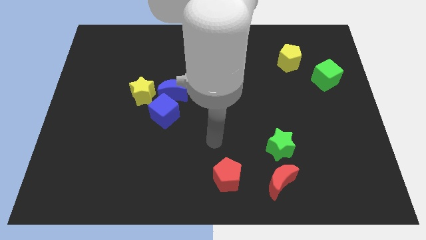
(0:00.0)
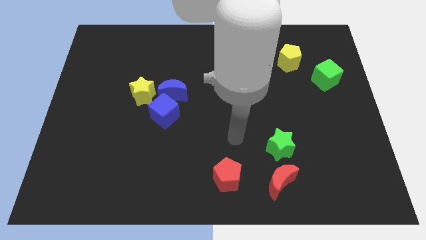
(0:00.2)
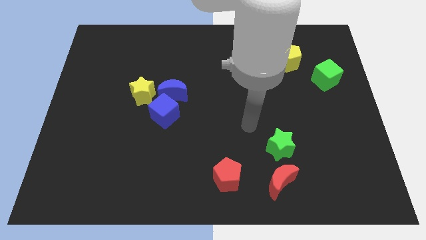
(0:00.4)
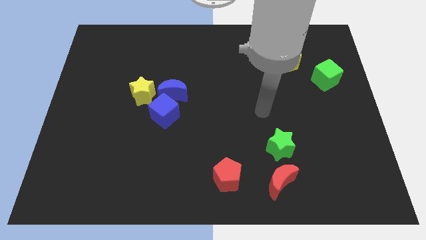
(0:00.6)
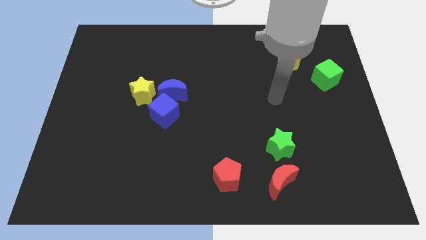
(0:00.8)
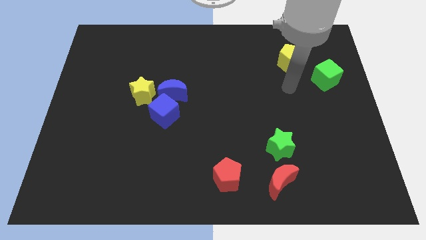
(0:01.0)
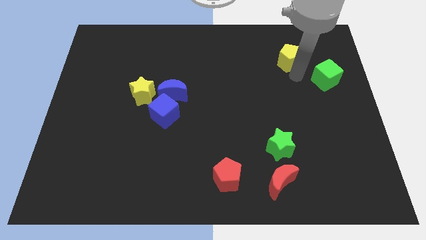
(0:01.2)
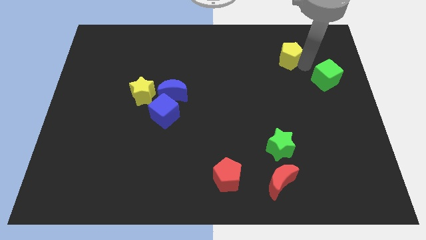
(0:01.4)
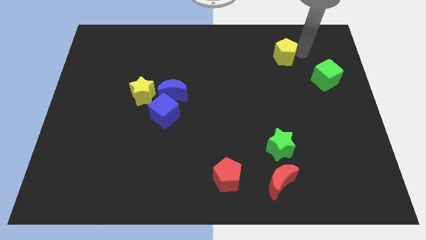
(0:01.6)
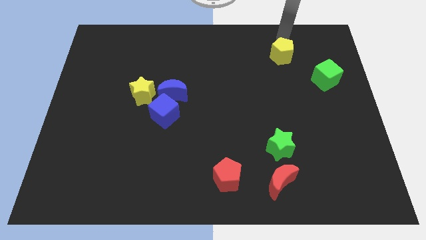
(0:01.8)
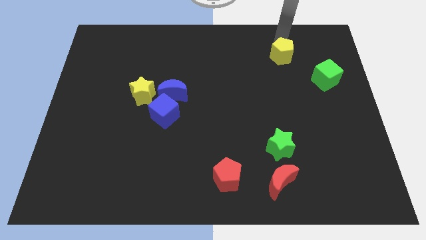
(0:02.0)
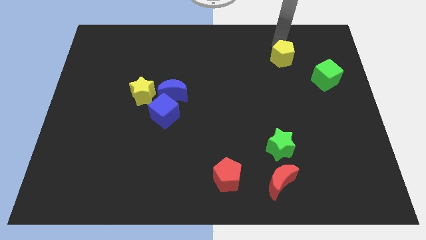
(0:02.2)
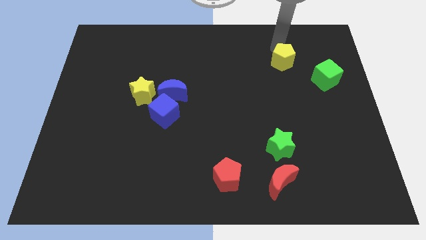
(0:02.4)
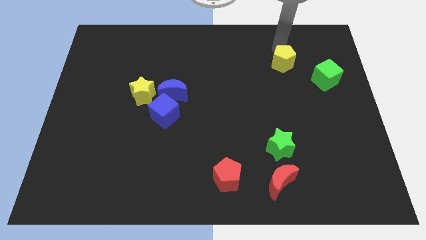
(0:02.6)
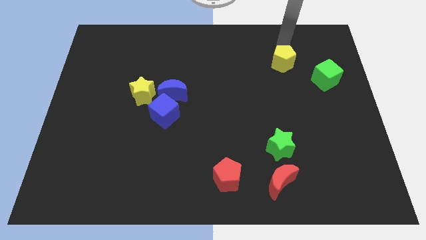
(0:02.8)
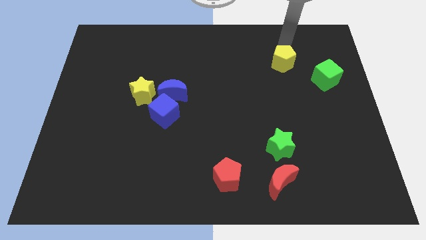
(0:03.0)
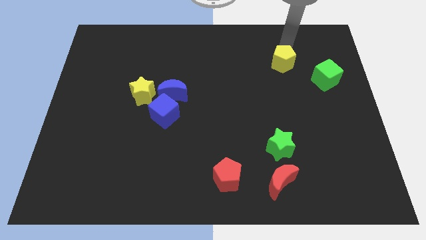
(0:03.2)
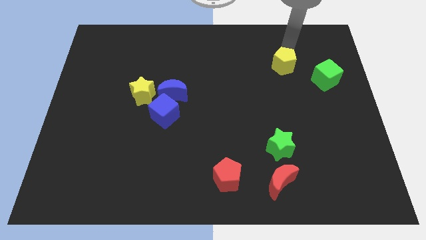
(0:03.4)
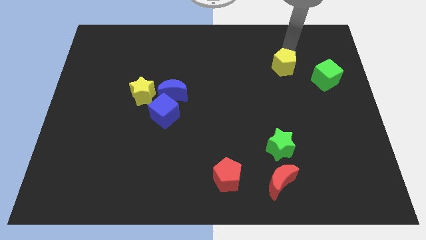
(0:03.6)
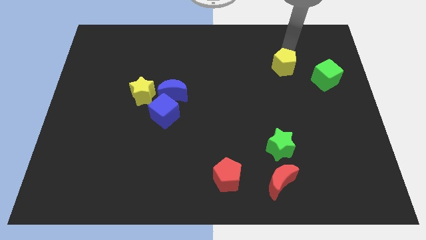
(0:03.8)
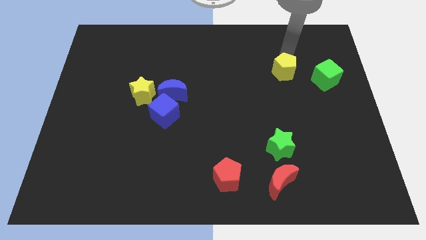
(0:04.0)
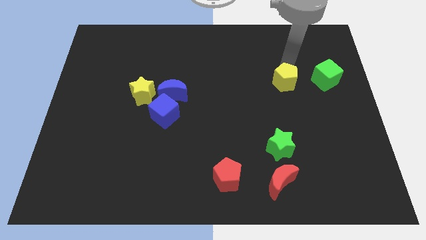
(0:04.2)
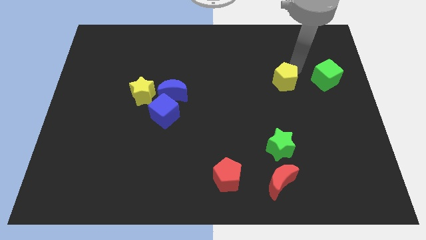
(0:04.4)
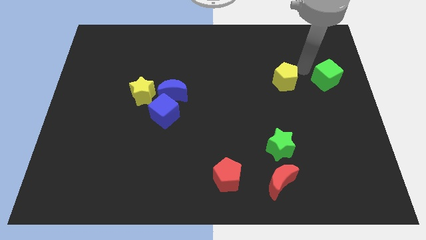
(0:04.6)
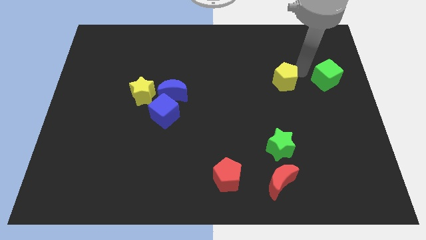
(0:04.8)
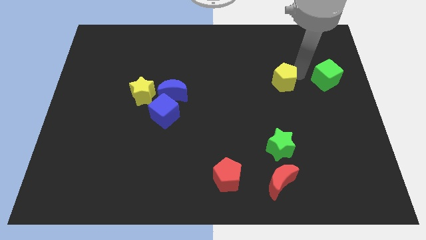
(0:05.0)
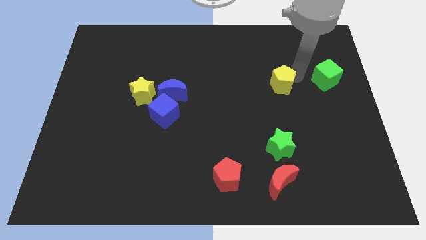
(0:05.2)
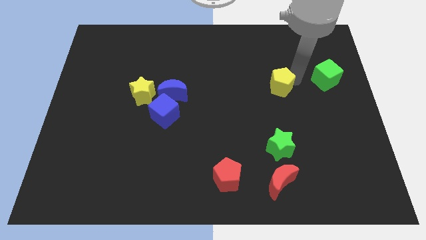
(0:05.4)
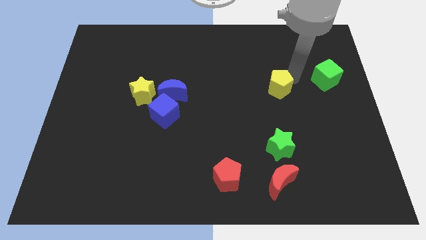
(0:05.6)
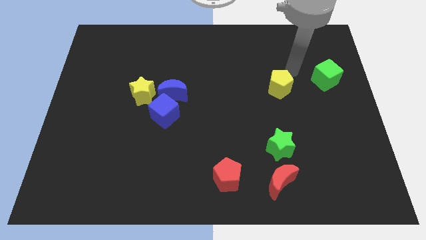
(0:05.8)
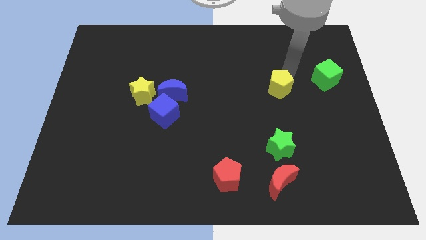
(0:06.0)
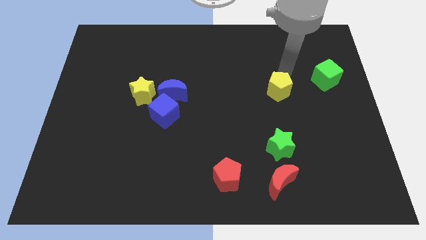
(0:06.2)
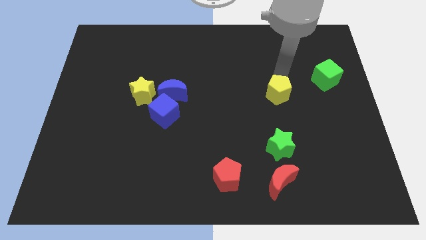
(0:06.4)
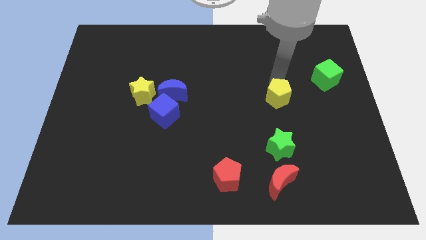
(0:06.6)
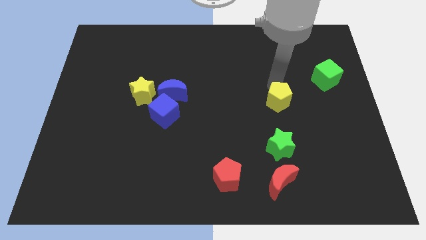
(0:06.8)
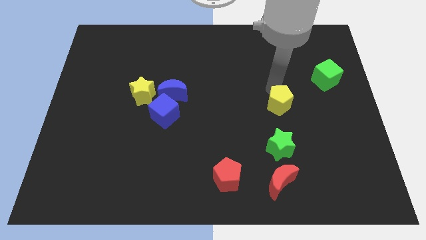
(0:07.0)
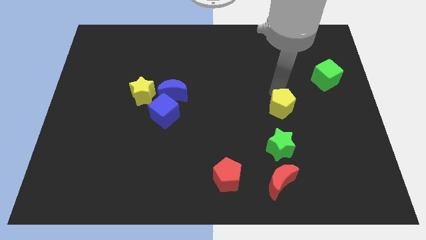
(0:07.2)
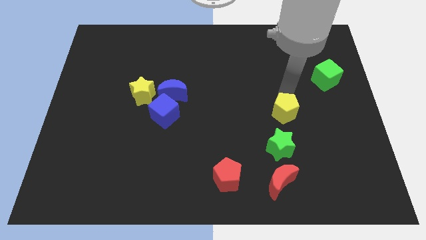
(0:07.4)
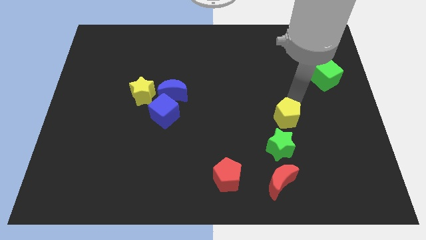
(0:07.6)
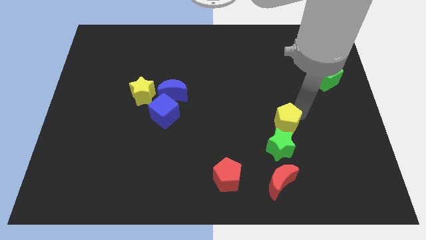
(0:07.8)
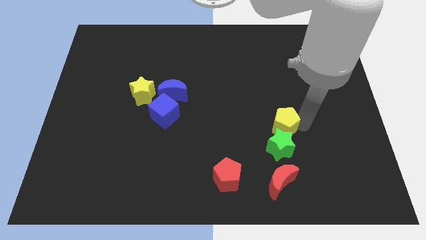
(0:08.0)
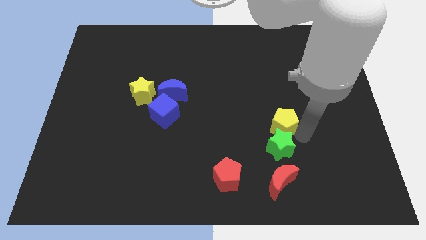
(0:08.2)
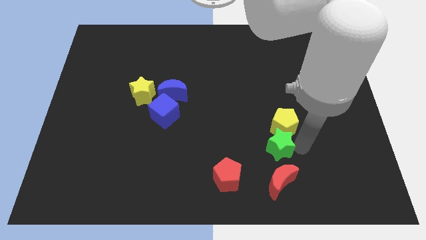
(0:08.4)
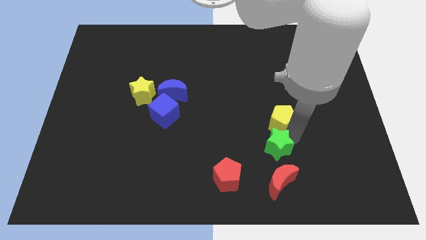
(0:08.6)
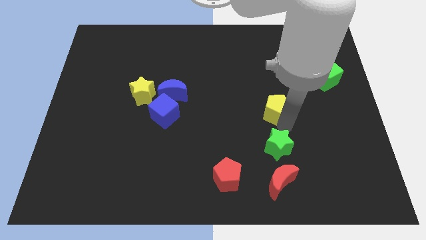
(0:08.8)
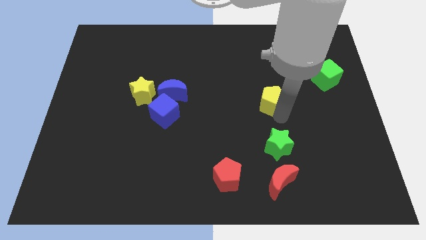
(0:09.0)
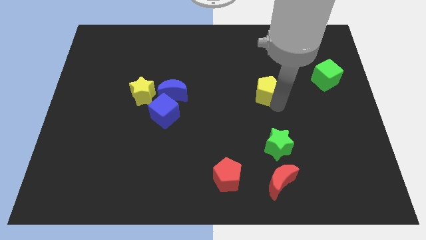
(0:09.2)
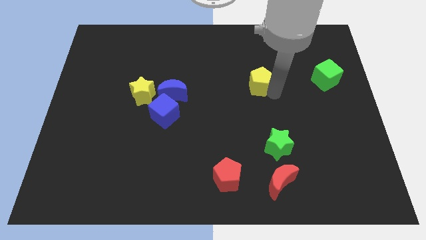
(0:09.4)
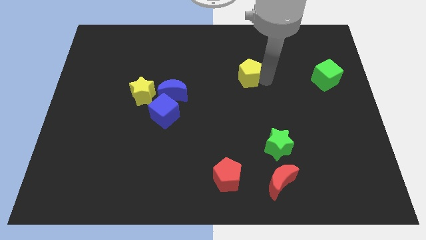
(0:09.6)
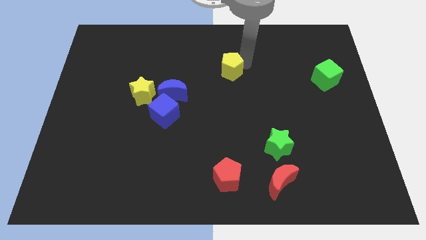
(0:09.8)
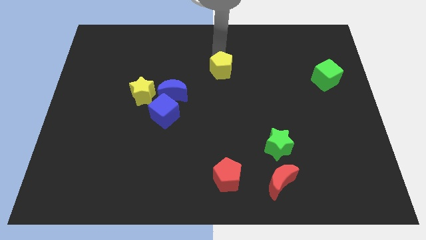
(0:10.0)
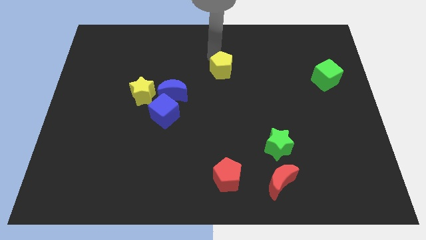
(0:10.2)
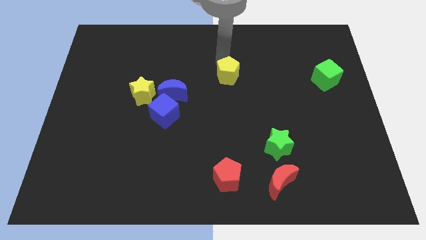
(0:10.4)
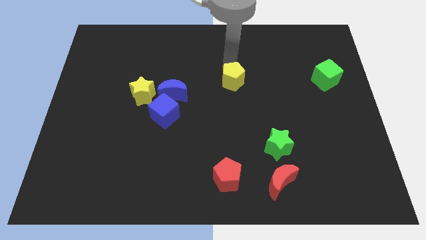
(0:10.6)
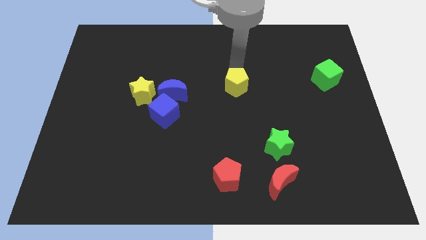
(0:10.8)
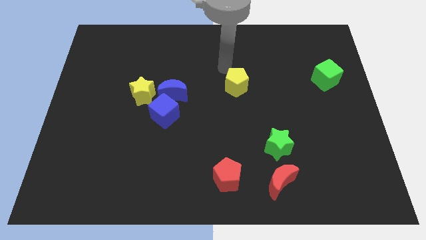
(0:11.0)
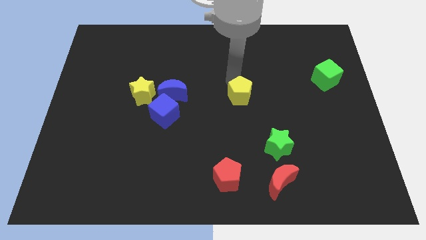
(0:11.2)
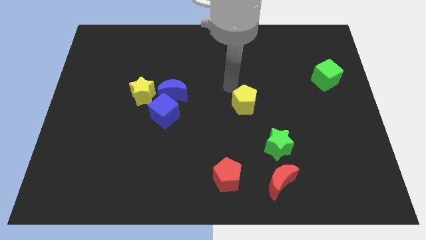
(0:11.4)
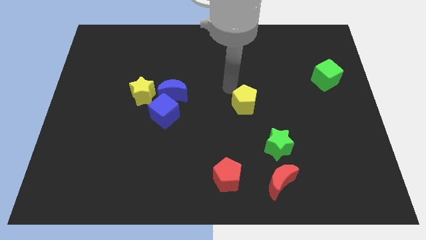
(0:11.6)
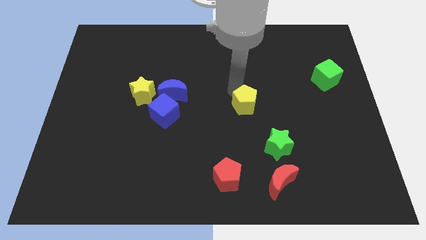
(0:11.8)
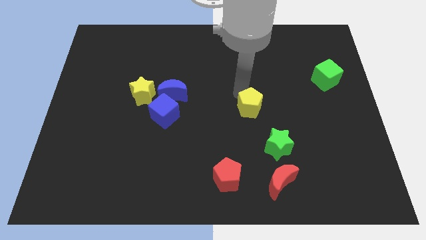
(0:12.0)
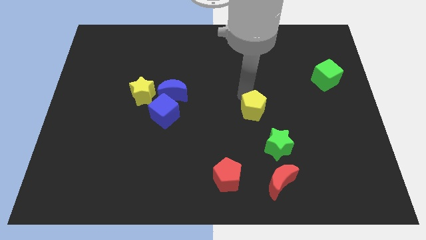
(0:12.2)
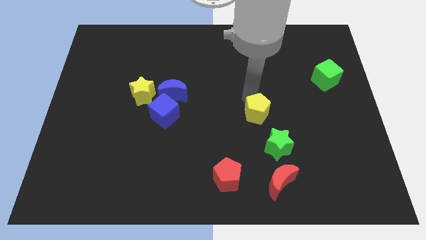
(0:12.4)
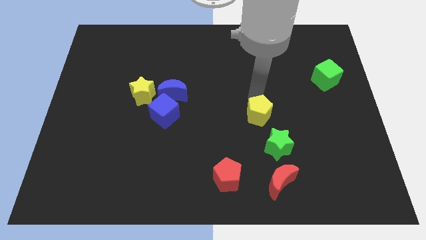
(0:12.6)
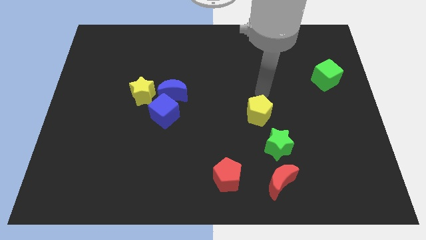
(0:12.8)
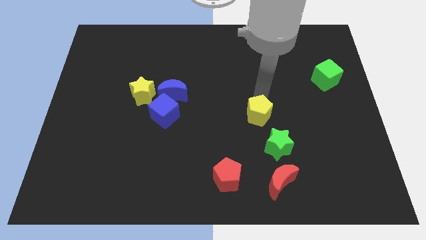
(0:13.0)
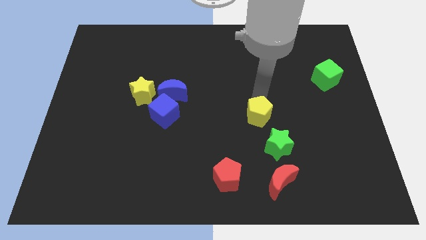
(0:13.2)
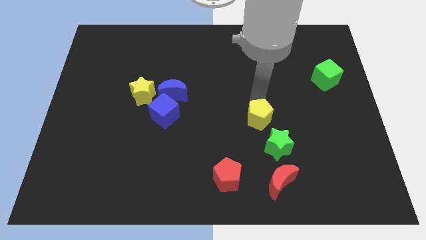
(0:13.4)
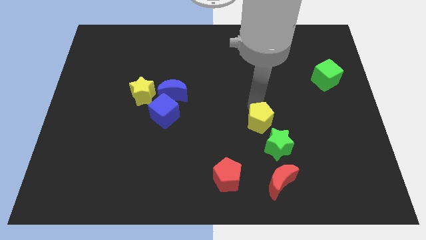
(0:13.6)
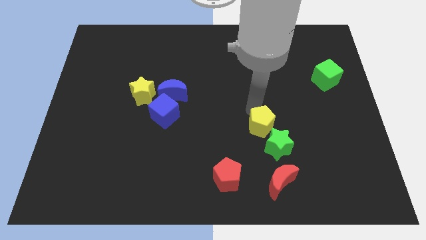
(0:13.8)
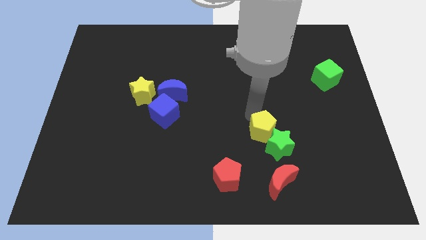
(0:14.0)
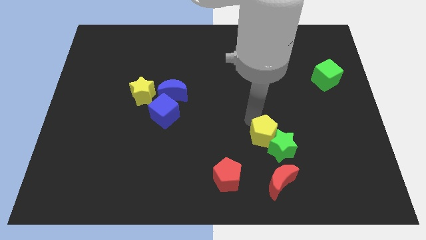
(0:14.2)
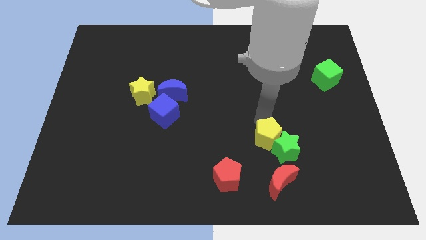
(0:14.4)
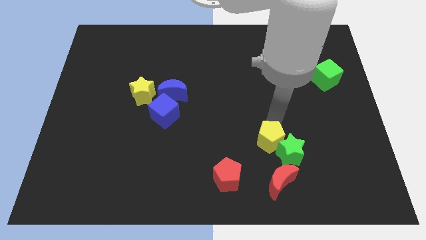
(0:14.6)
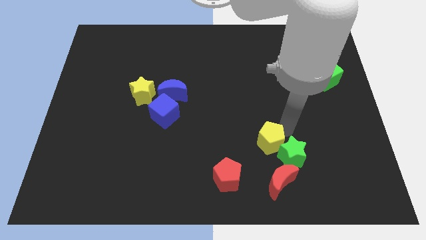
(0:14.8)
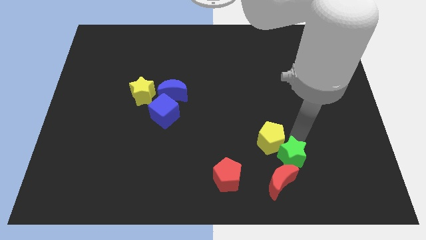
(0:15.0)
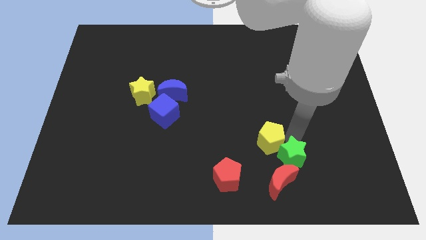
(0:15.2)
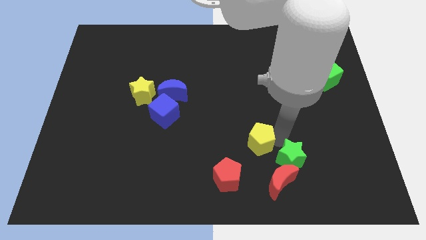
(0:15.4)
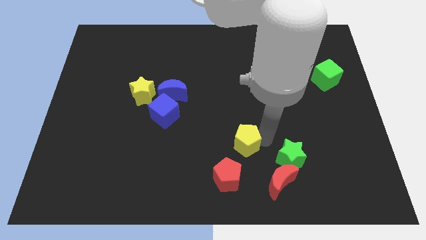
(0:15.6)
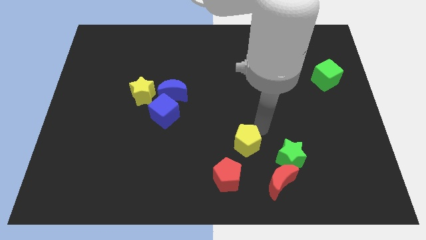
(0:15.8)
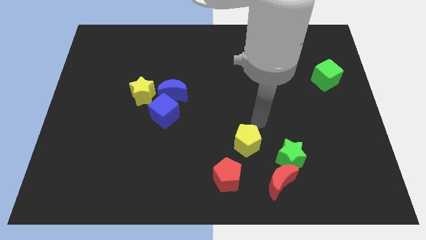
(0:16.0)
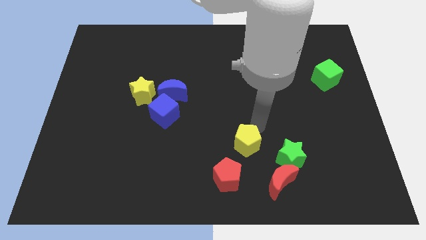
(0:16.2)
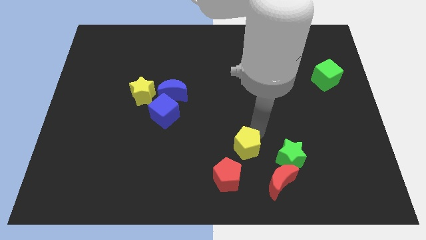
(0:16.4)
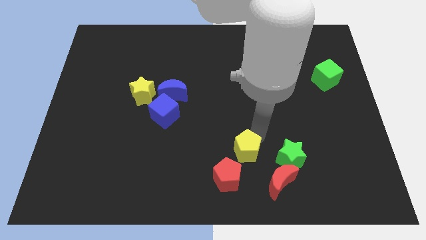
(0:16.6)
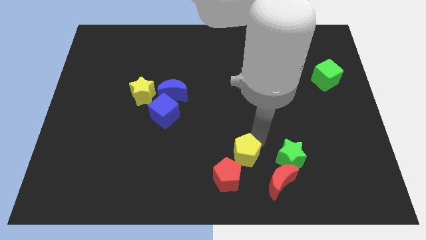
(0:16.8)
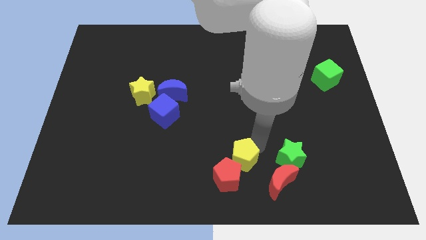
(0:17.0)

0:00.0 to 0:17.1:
slide the yellow pentagon close to the red pentagon
